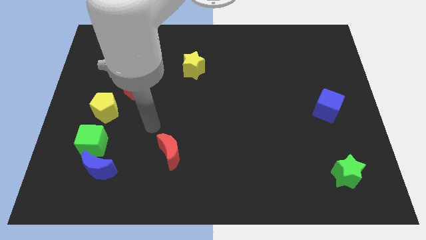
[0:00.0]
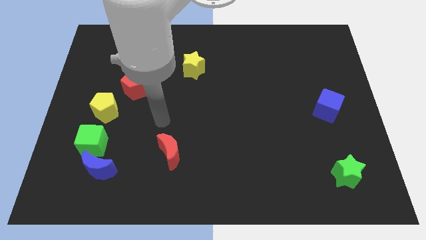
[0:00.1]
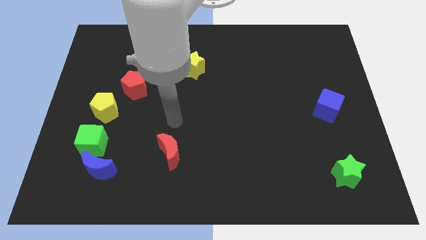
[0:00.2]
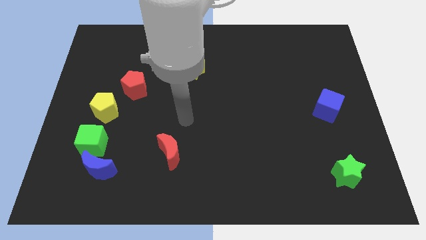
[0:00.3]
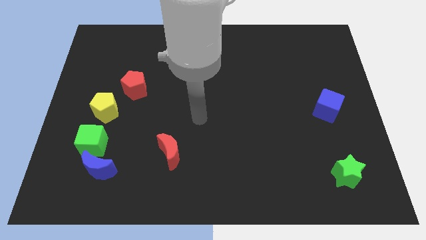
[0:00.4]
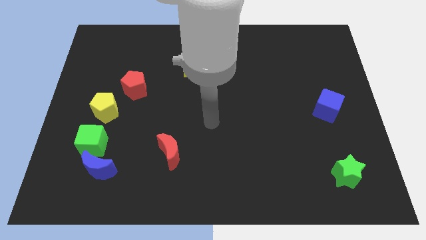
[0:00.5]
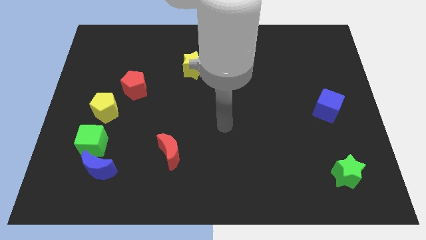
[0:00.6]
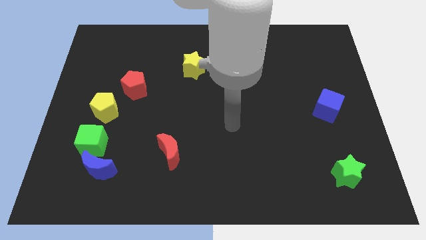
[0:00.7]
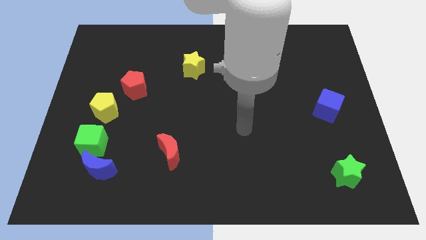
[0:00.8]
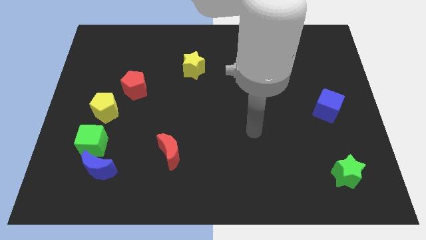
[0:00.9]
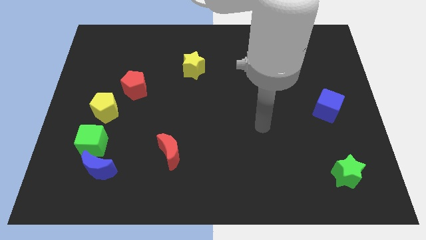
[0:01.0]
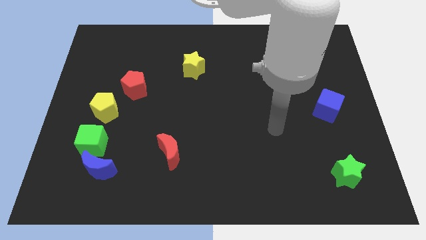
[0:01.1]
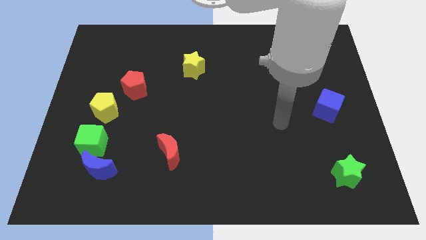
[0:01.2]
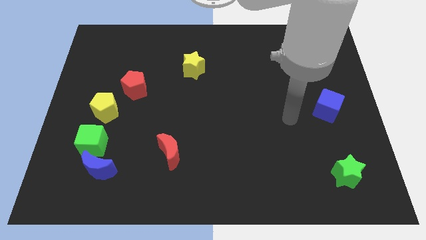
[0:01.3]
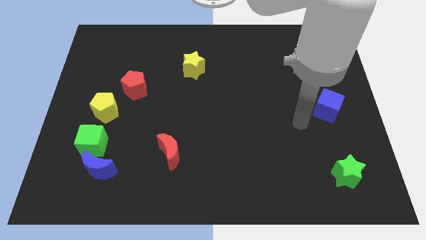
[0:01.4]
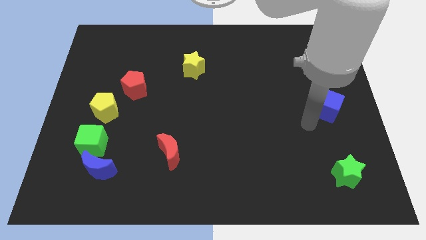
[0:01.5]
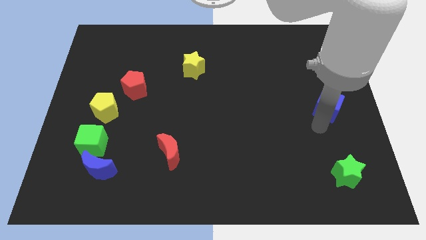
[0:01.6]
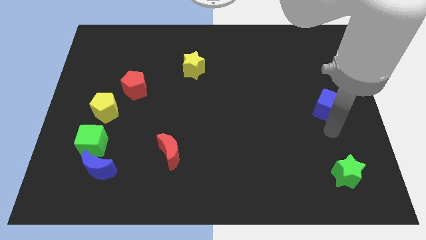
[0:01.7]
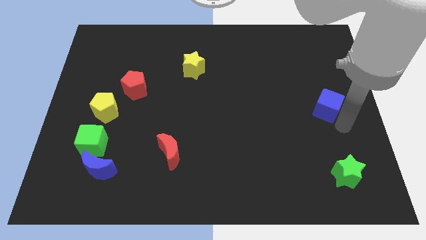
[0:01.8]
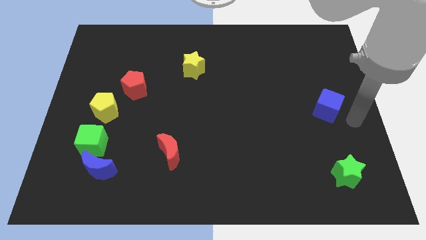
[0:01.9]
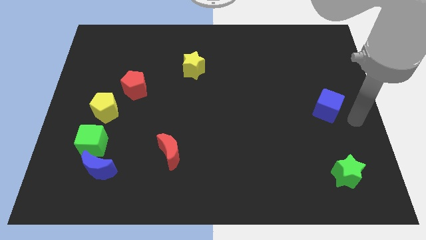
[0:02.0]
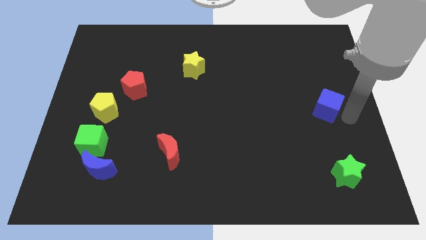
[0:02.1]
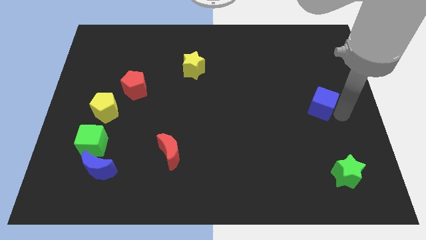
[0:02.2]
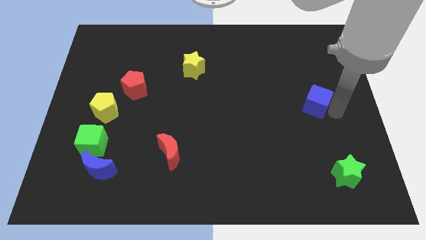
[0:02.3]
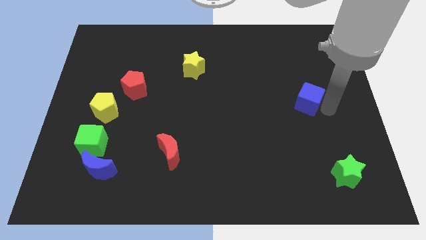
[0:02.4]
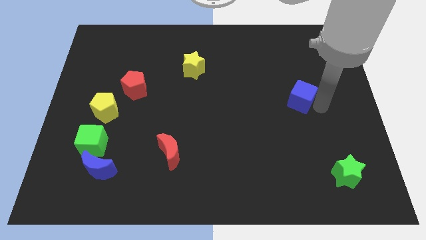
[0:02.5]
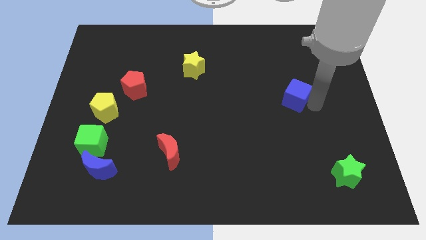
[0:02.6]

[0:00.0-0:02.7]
move the blue cube up and then to the left a little bit

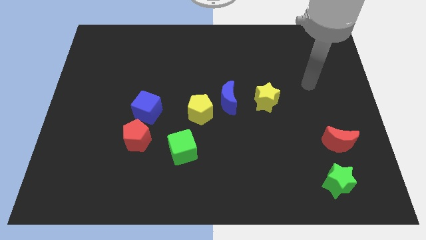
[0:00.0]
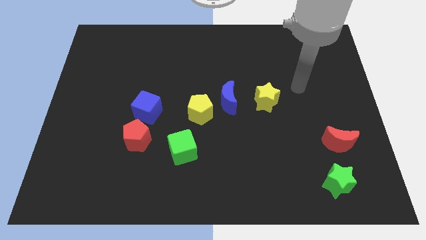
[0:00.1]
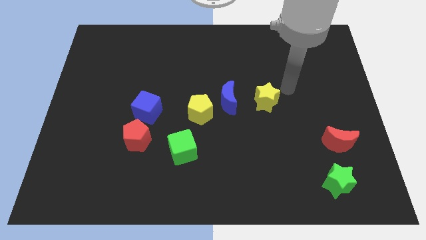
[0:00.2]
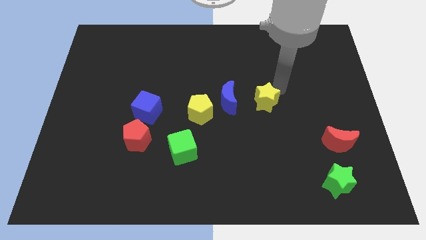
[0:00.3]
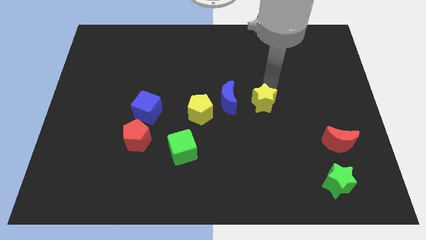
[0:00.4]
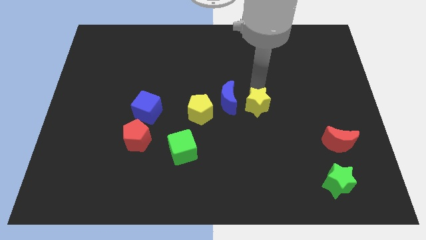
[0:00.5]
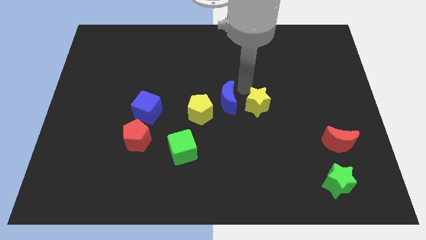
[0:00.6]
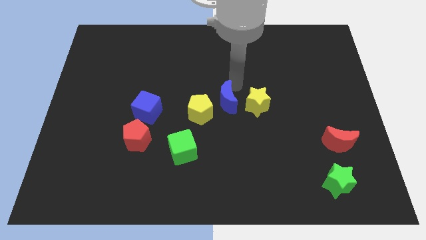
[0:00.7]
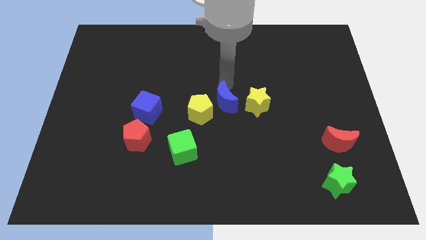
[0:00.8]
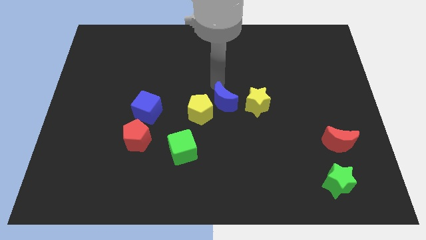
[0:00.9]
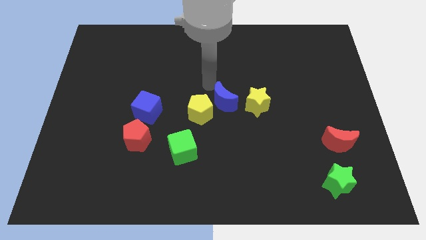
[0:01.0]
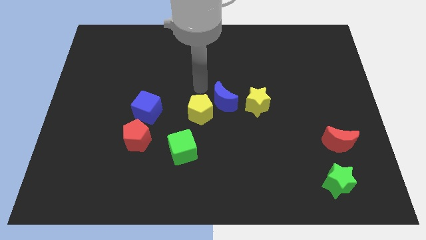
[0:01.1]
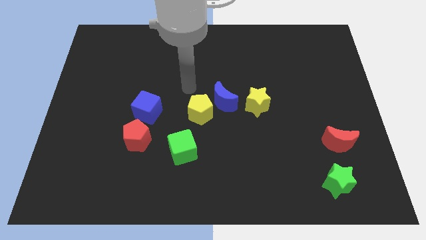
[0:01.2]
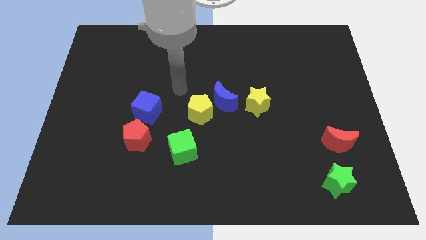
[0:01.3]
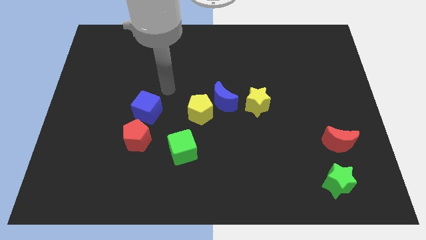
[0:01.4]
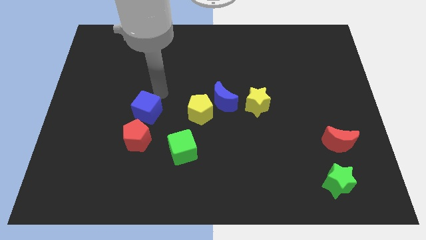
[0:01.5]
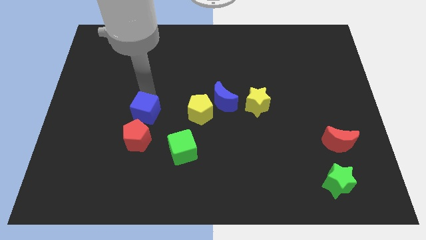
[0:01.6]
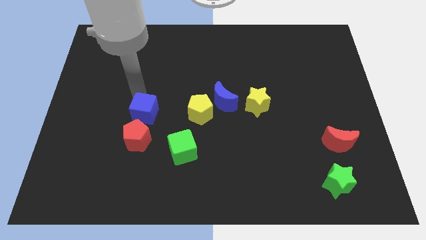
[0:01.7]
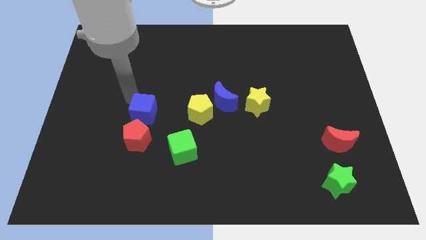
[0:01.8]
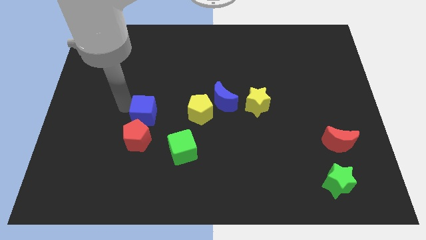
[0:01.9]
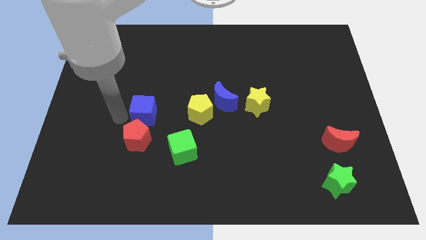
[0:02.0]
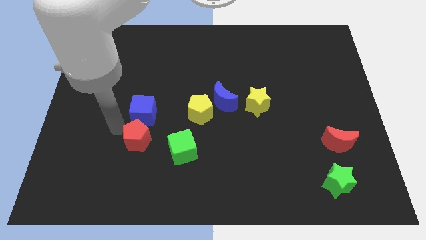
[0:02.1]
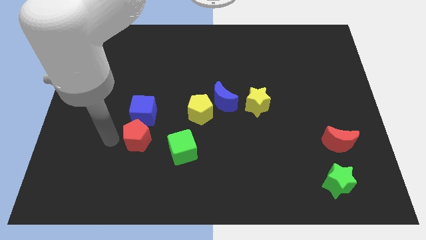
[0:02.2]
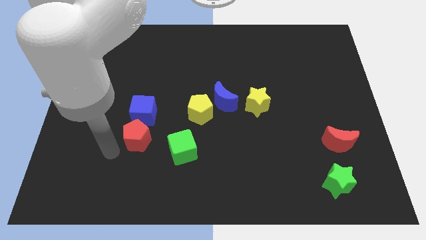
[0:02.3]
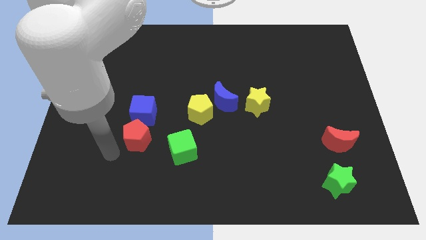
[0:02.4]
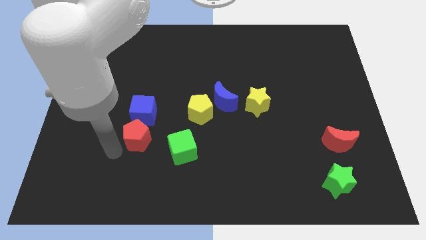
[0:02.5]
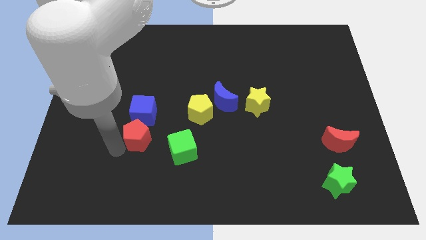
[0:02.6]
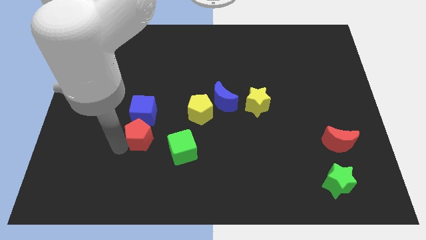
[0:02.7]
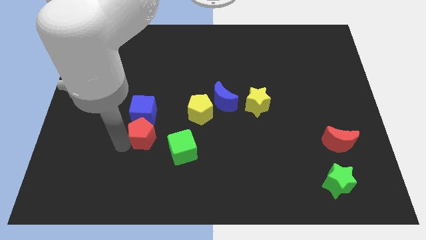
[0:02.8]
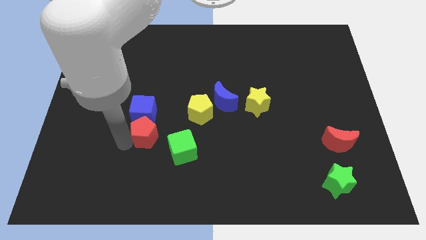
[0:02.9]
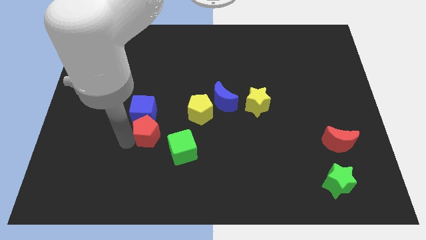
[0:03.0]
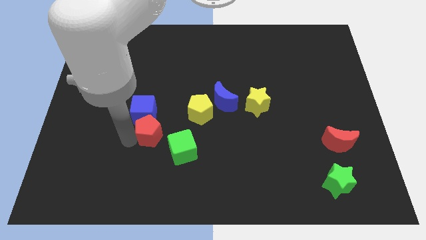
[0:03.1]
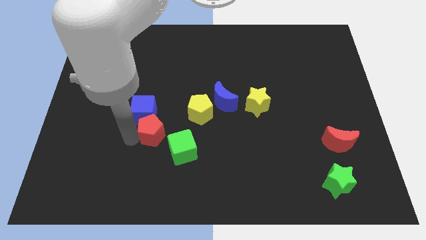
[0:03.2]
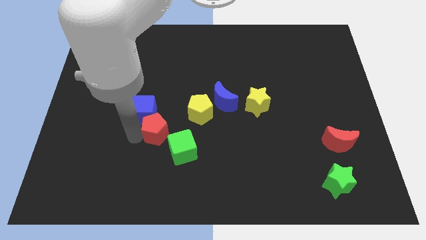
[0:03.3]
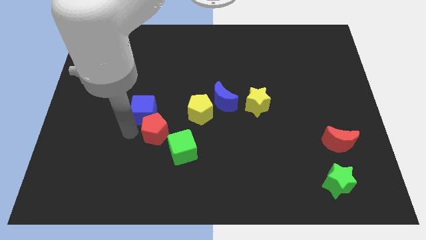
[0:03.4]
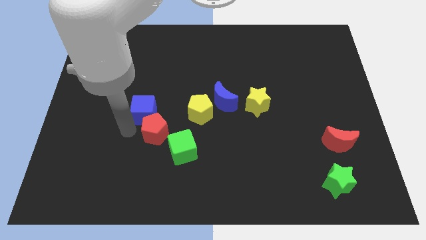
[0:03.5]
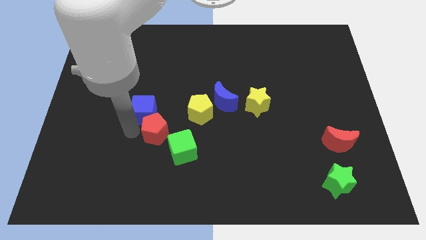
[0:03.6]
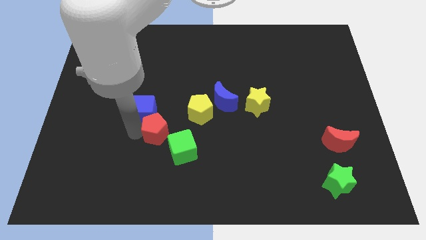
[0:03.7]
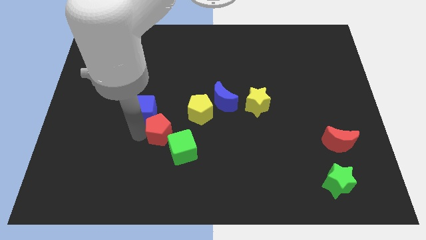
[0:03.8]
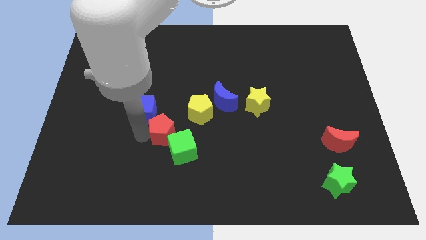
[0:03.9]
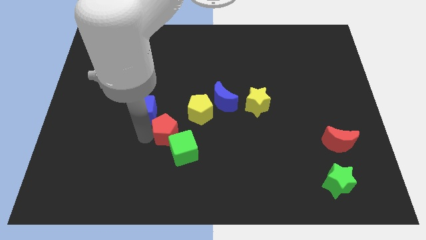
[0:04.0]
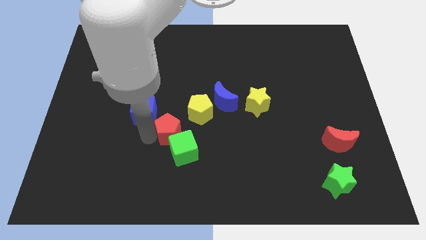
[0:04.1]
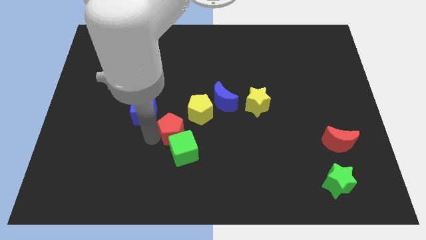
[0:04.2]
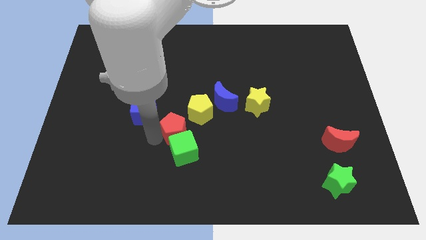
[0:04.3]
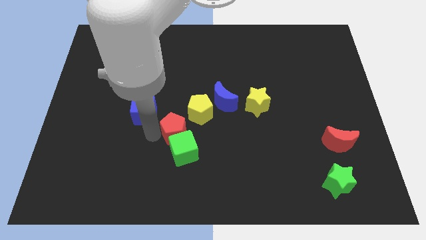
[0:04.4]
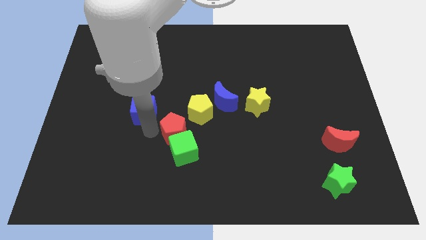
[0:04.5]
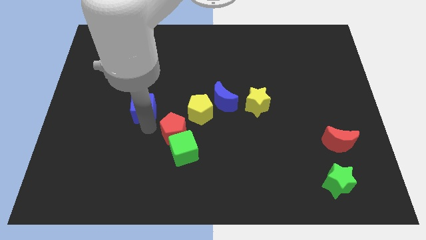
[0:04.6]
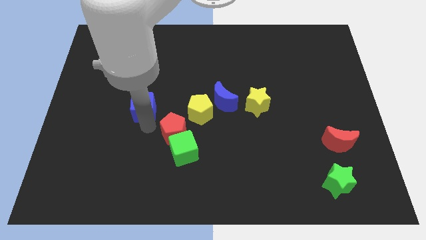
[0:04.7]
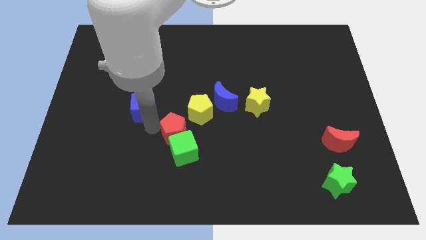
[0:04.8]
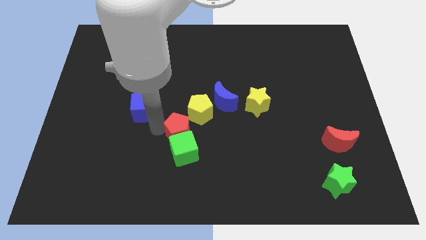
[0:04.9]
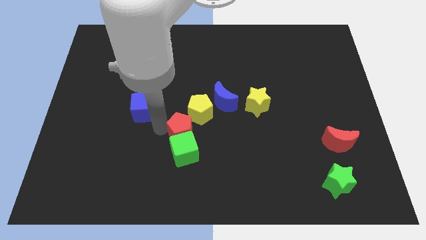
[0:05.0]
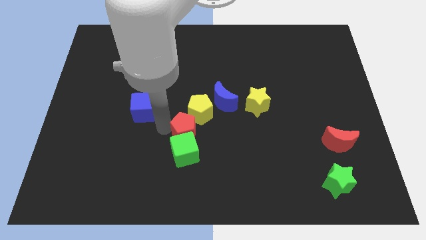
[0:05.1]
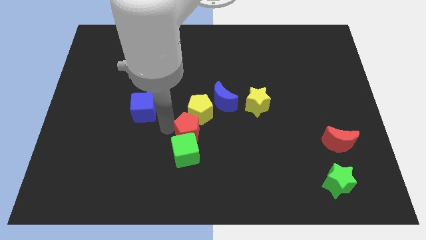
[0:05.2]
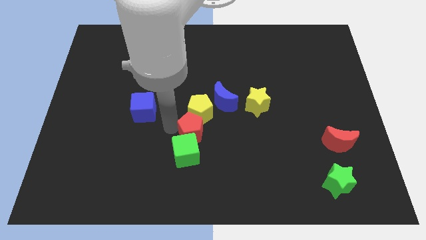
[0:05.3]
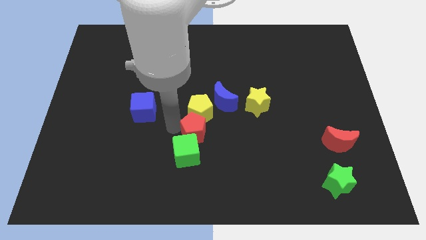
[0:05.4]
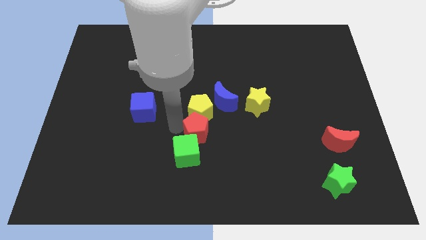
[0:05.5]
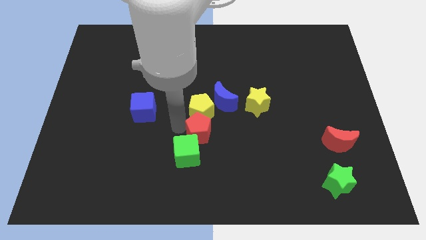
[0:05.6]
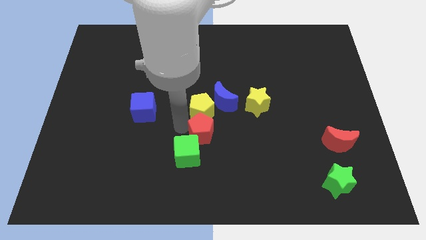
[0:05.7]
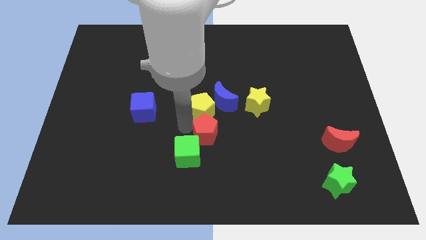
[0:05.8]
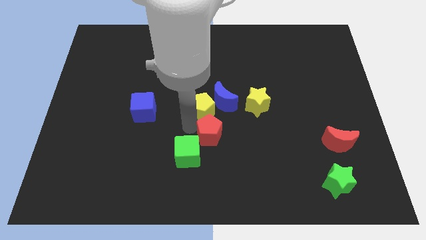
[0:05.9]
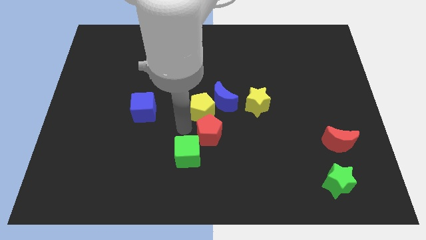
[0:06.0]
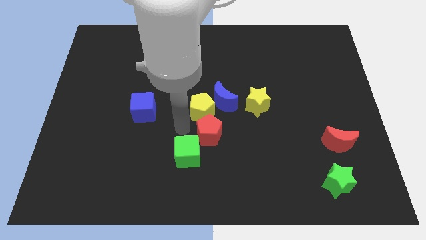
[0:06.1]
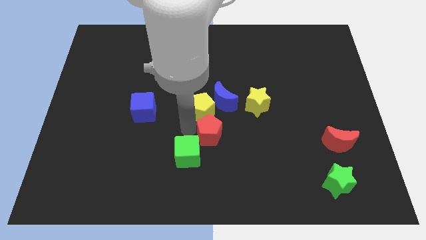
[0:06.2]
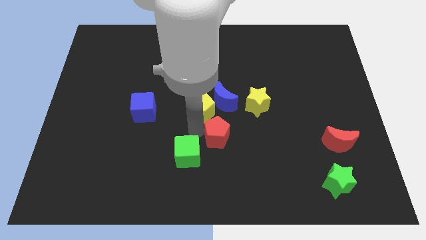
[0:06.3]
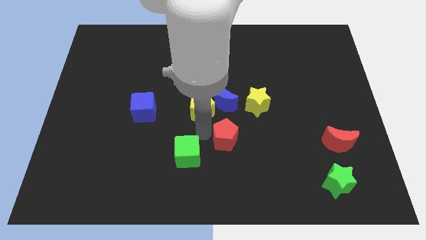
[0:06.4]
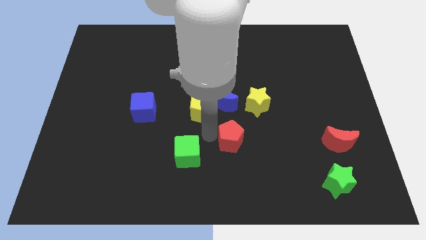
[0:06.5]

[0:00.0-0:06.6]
move the red pentagon to the right
